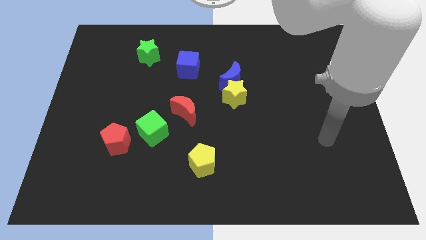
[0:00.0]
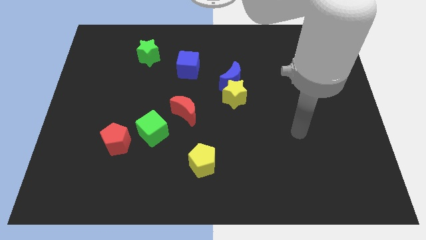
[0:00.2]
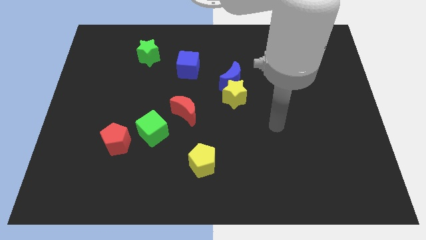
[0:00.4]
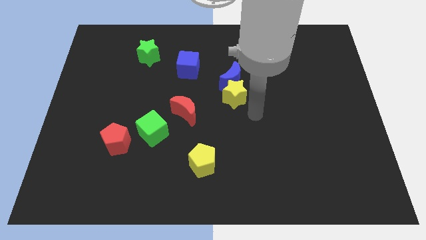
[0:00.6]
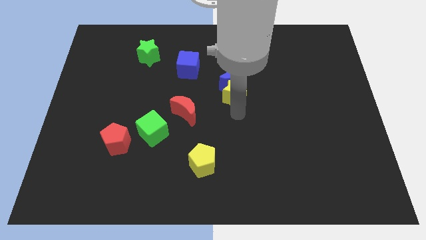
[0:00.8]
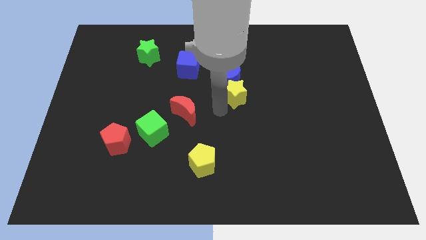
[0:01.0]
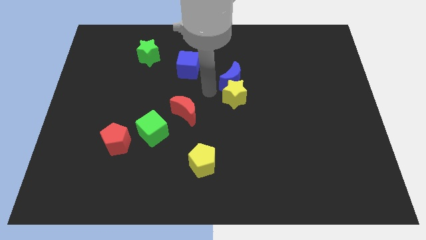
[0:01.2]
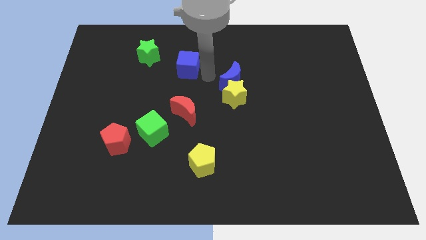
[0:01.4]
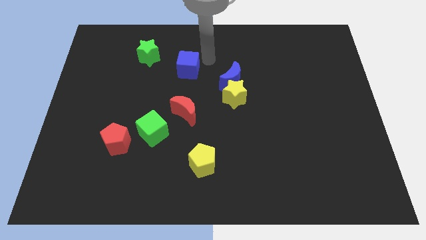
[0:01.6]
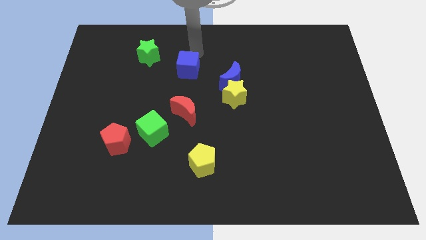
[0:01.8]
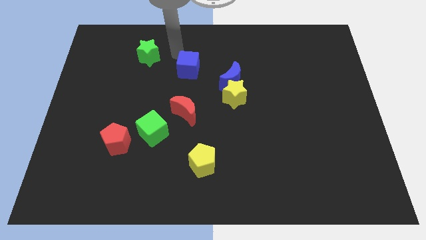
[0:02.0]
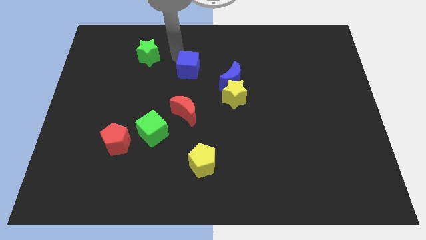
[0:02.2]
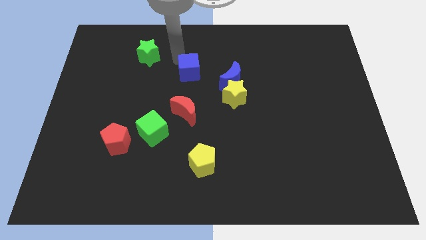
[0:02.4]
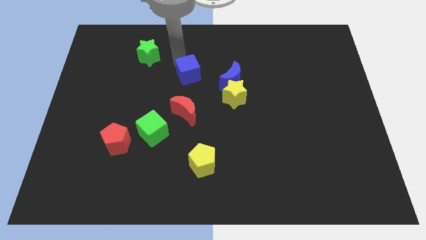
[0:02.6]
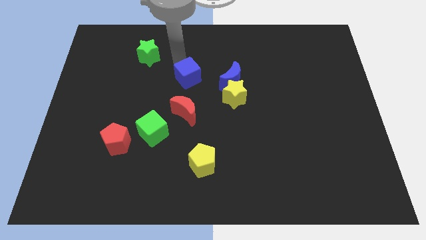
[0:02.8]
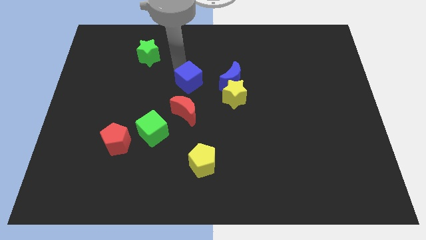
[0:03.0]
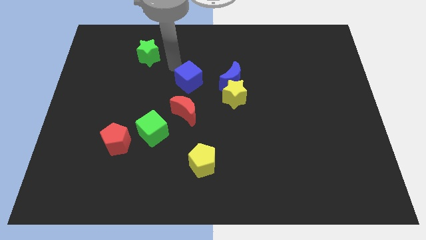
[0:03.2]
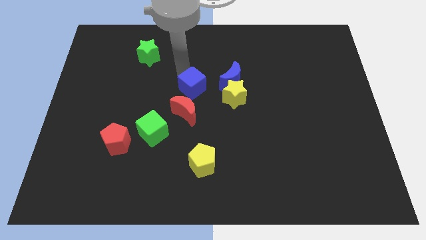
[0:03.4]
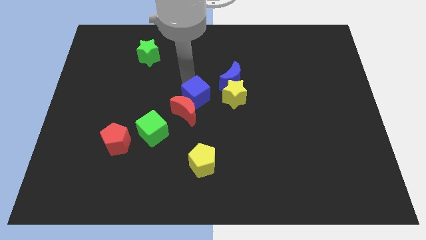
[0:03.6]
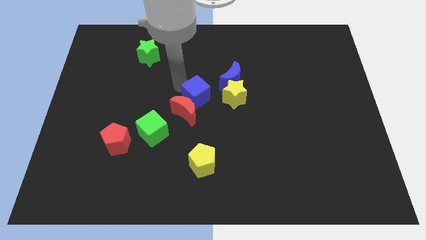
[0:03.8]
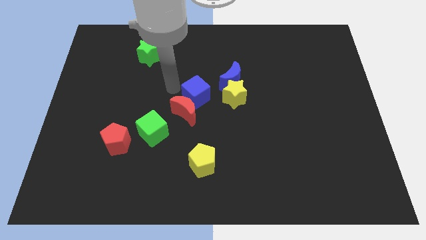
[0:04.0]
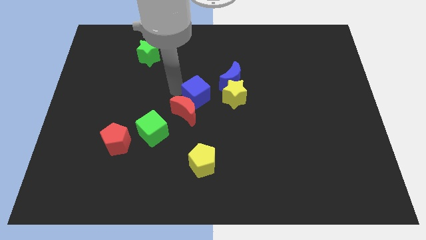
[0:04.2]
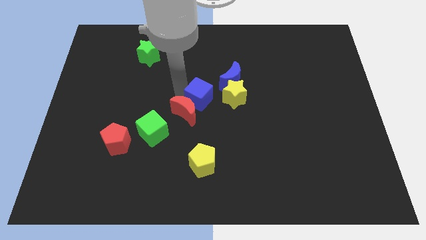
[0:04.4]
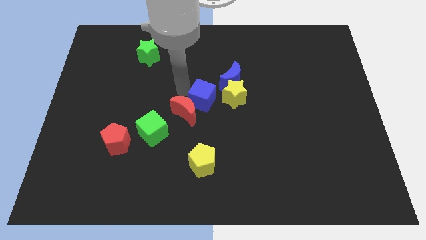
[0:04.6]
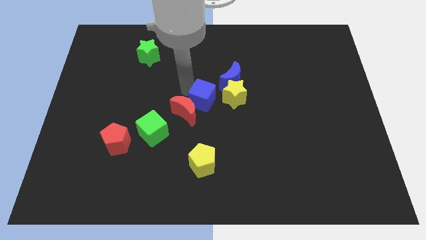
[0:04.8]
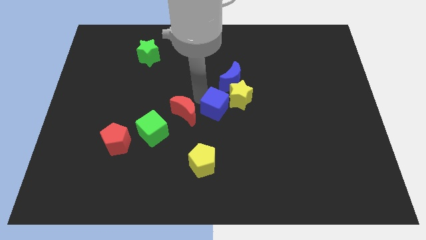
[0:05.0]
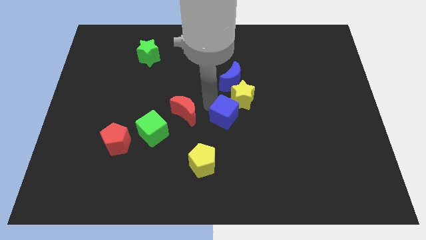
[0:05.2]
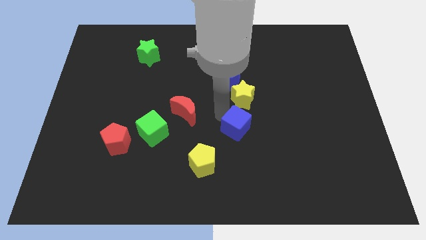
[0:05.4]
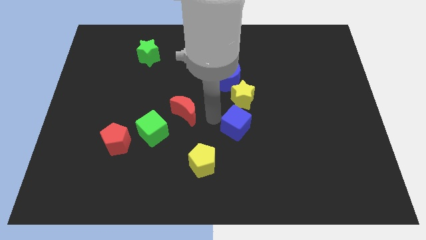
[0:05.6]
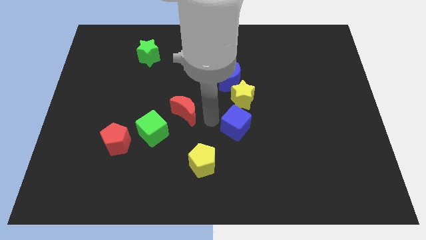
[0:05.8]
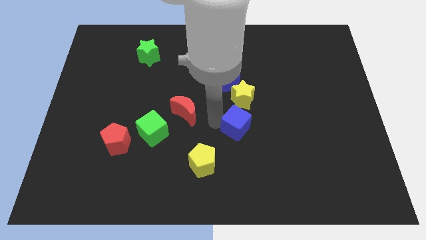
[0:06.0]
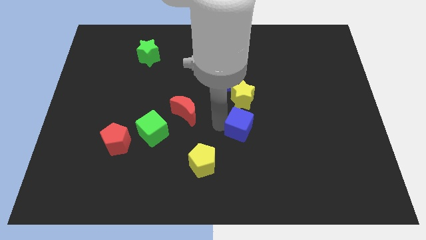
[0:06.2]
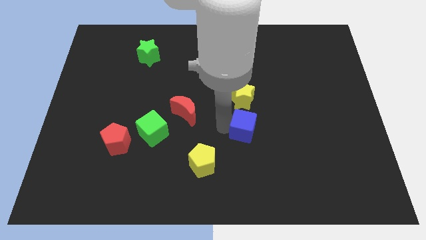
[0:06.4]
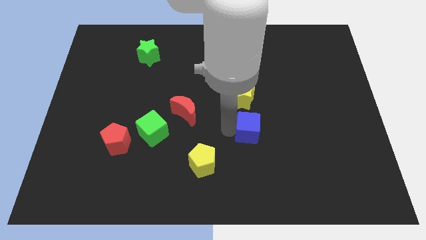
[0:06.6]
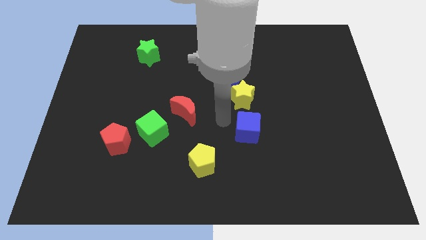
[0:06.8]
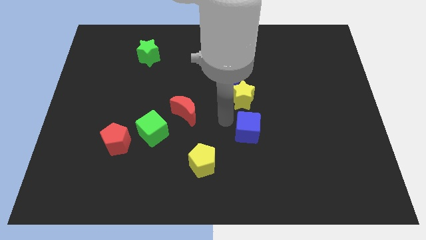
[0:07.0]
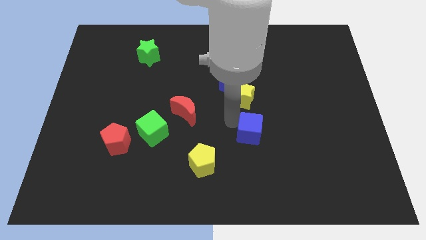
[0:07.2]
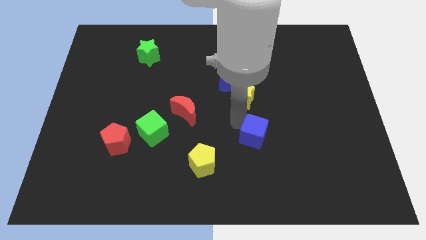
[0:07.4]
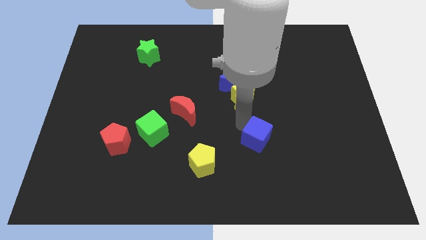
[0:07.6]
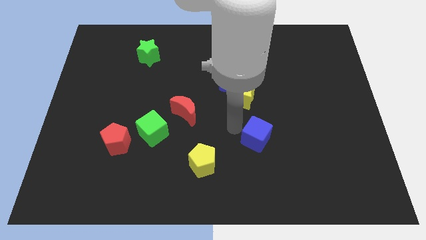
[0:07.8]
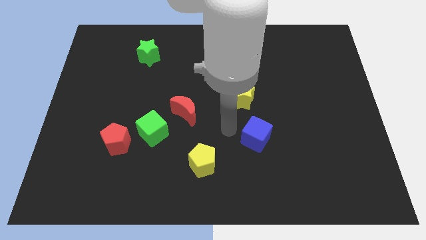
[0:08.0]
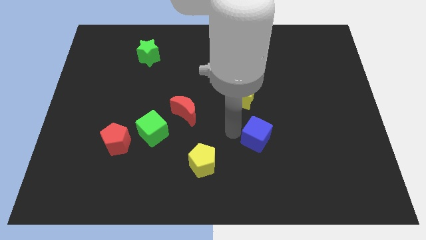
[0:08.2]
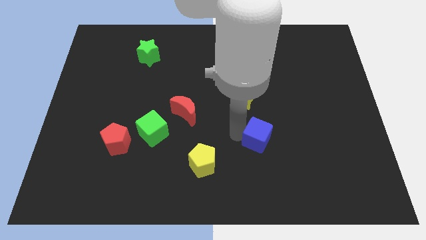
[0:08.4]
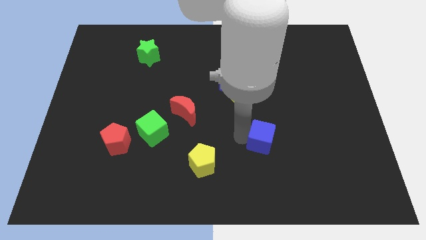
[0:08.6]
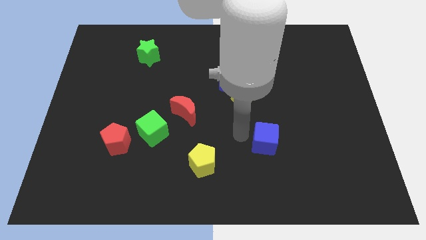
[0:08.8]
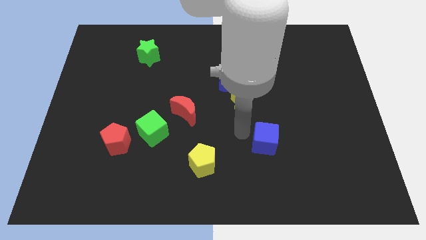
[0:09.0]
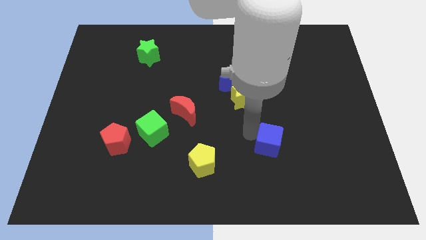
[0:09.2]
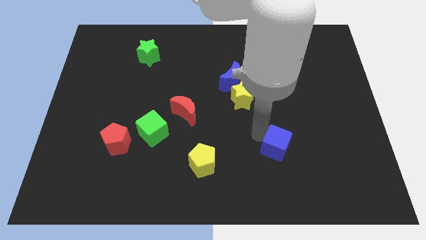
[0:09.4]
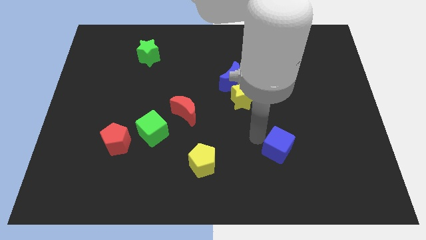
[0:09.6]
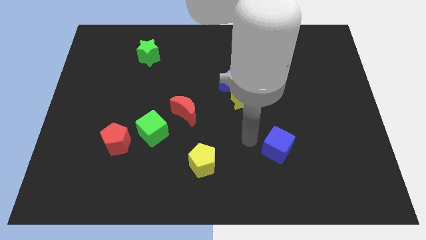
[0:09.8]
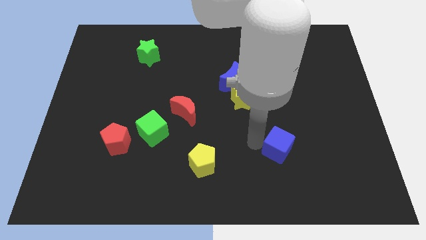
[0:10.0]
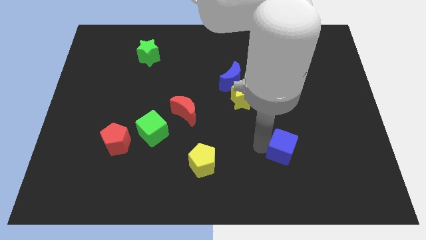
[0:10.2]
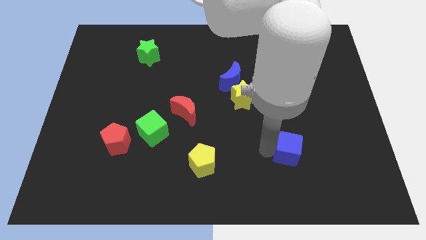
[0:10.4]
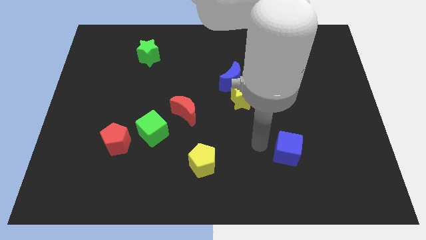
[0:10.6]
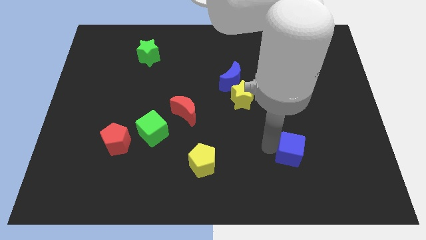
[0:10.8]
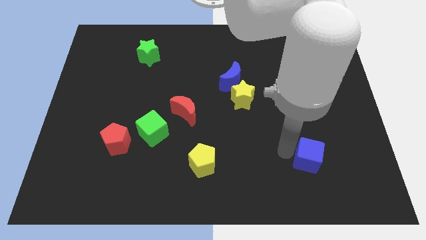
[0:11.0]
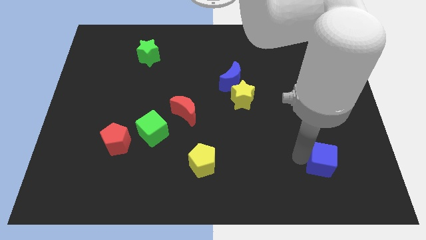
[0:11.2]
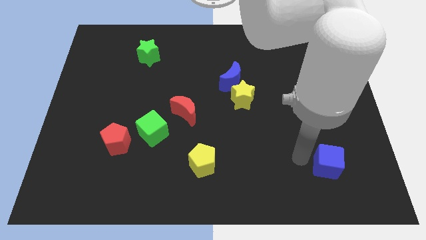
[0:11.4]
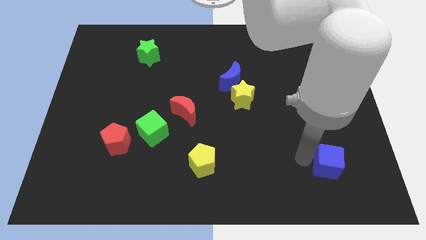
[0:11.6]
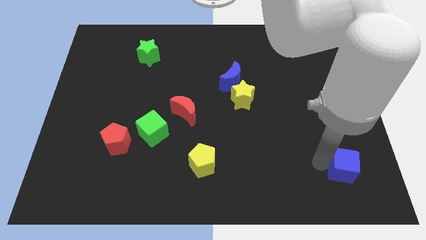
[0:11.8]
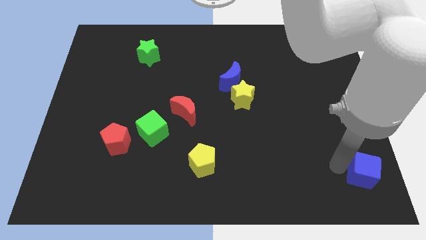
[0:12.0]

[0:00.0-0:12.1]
push the blue cube to the lower right corner

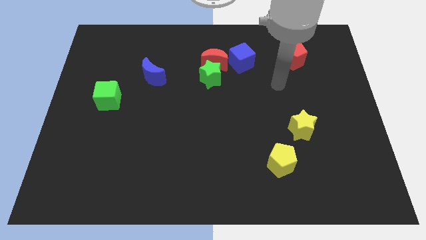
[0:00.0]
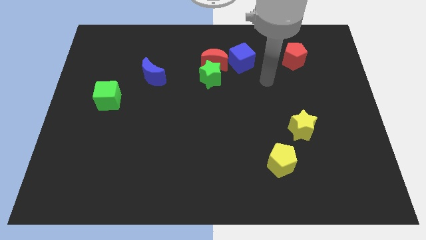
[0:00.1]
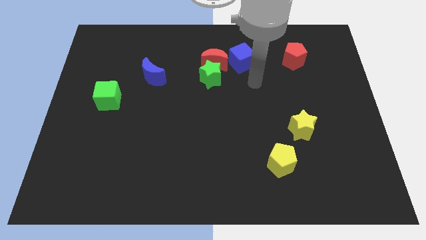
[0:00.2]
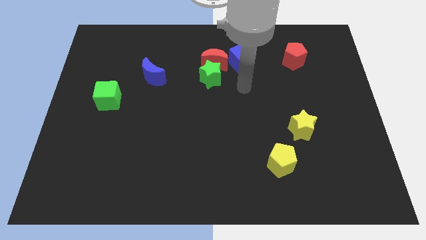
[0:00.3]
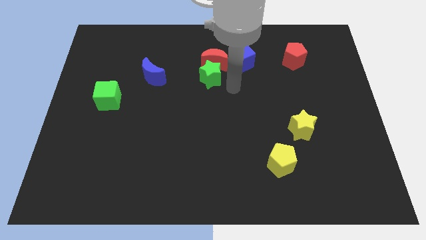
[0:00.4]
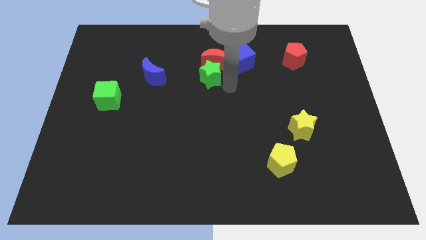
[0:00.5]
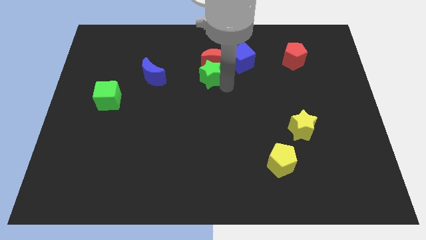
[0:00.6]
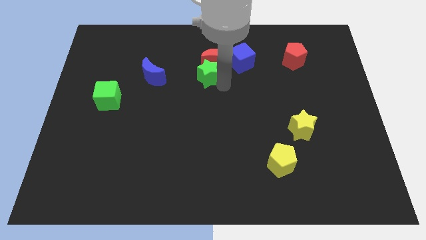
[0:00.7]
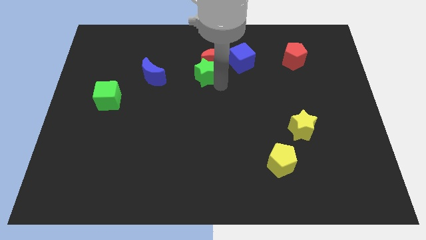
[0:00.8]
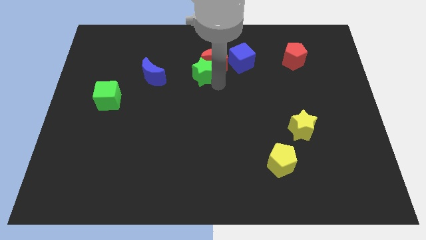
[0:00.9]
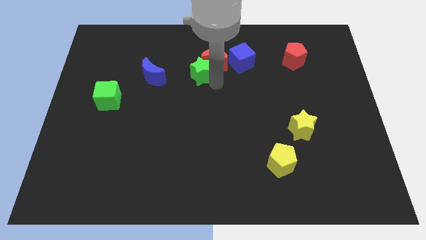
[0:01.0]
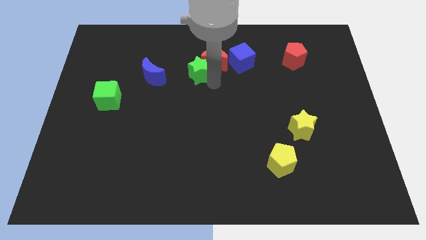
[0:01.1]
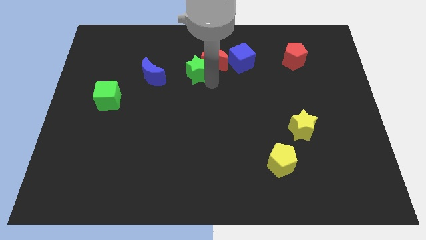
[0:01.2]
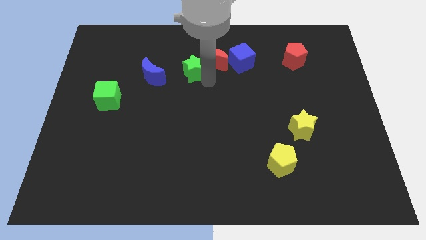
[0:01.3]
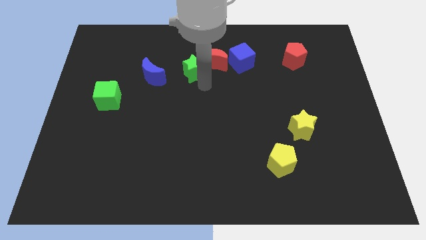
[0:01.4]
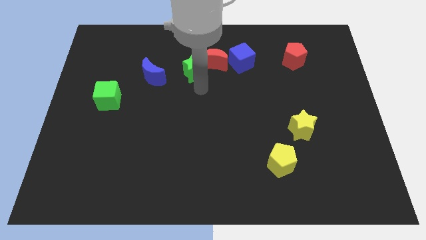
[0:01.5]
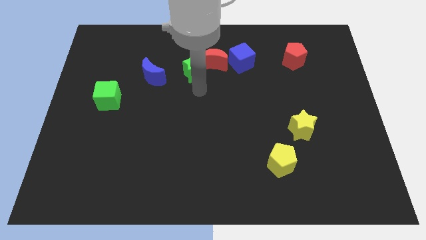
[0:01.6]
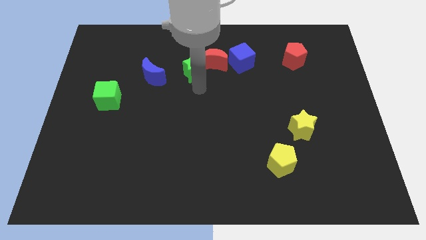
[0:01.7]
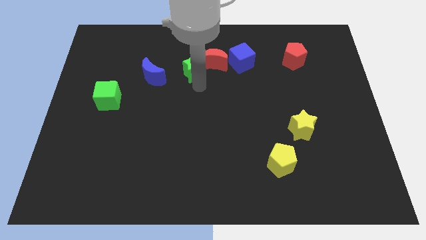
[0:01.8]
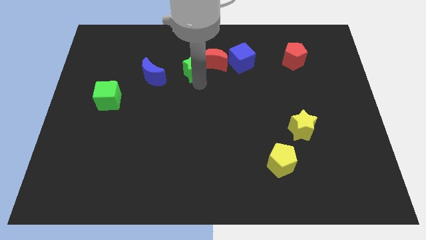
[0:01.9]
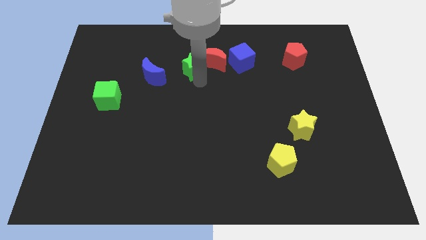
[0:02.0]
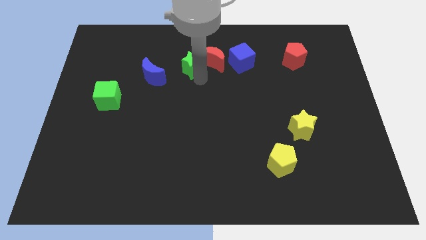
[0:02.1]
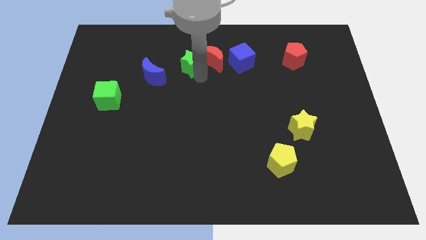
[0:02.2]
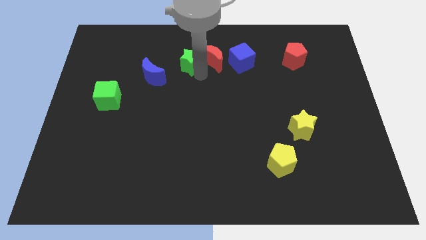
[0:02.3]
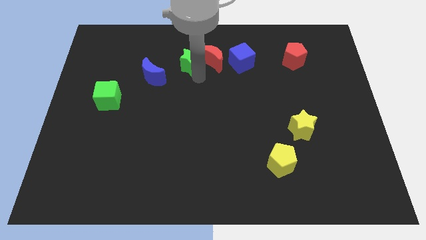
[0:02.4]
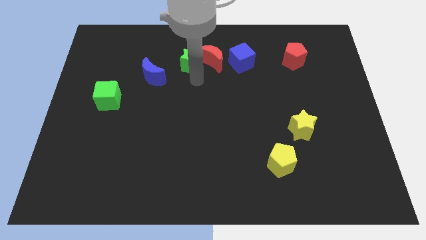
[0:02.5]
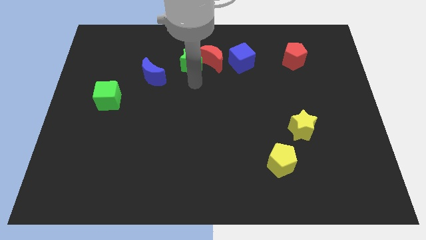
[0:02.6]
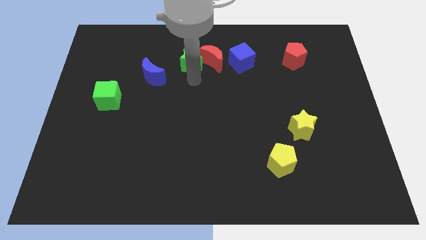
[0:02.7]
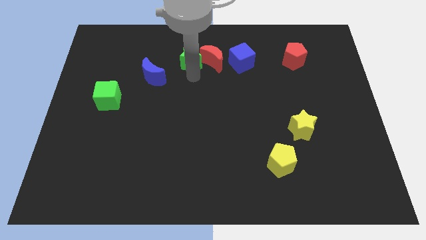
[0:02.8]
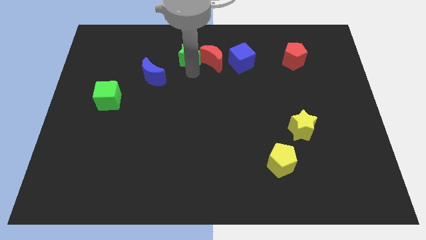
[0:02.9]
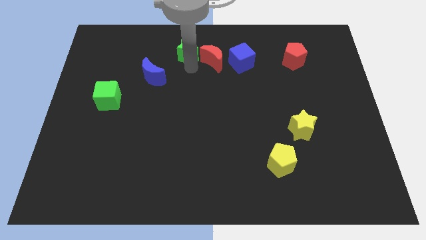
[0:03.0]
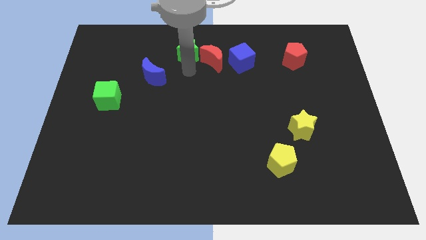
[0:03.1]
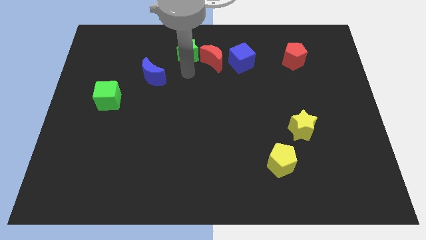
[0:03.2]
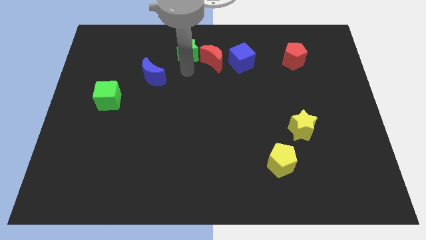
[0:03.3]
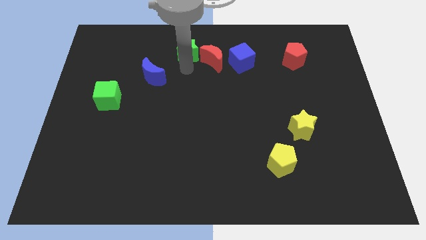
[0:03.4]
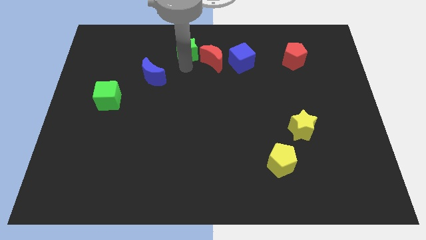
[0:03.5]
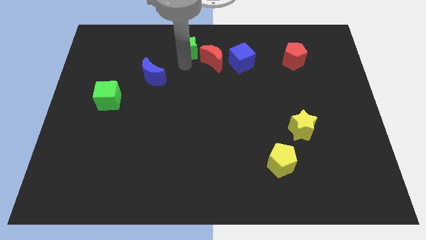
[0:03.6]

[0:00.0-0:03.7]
put the green star to the top side
